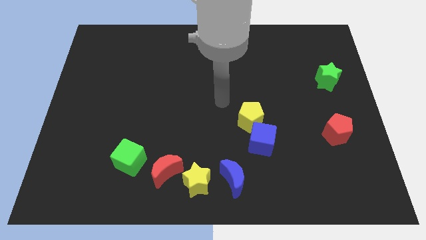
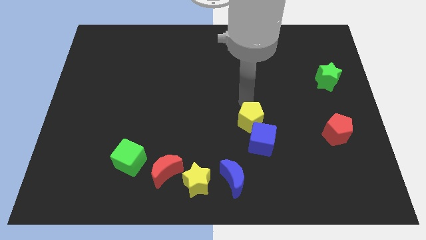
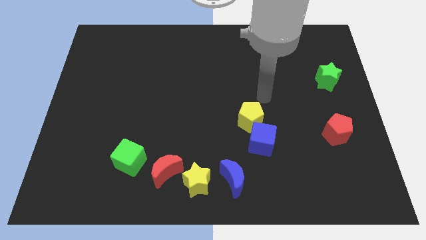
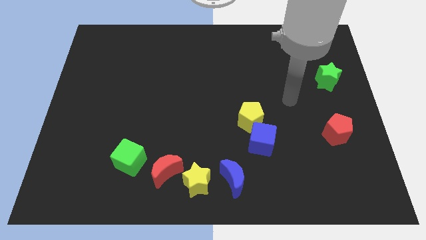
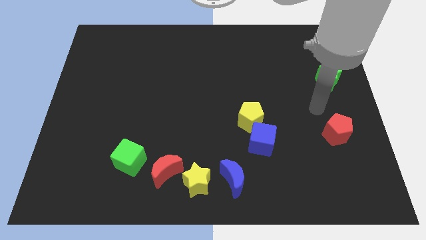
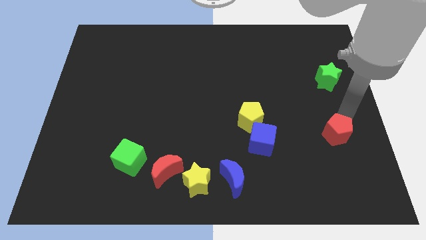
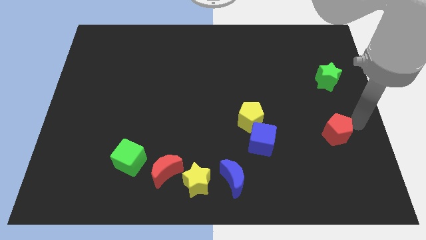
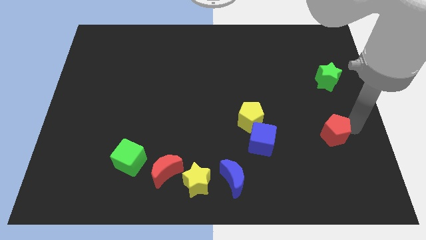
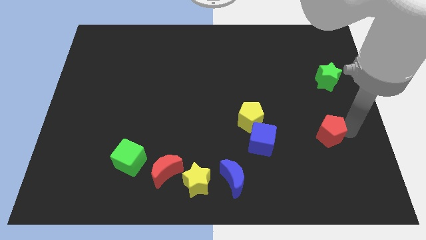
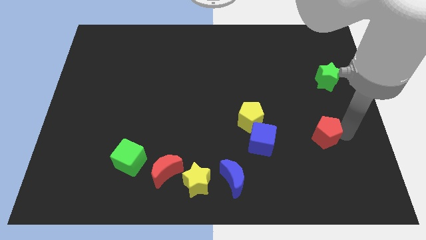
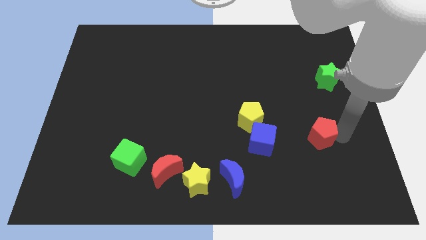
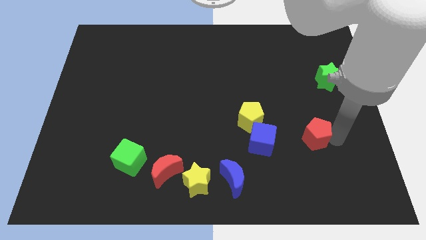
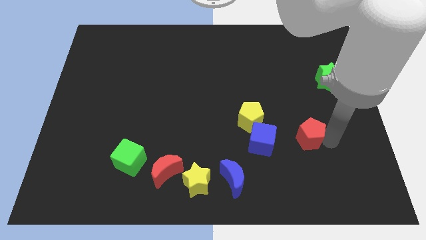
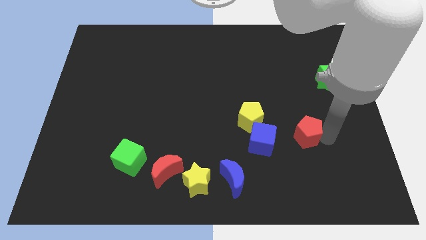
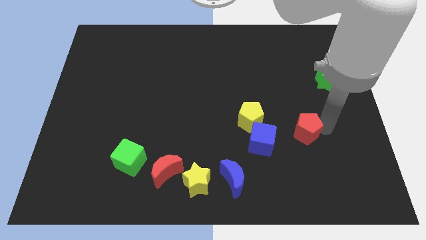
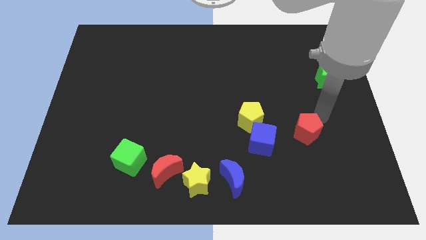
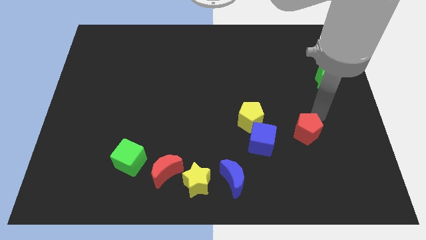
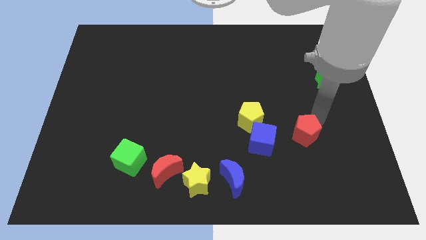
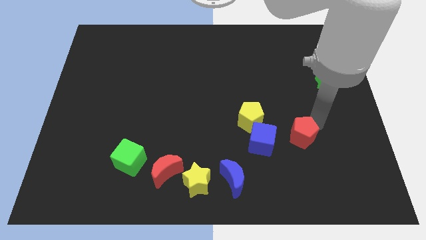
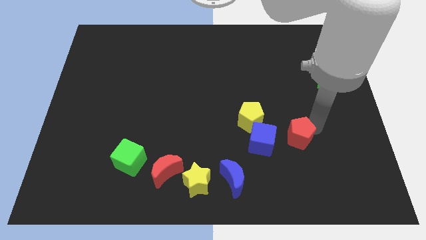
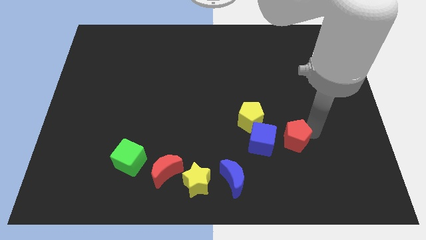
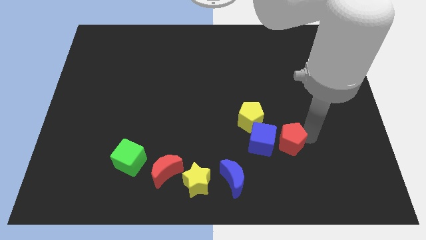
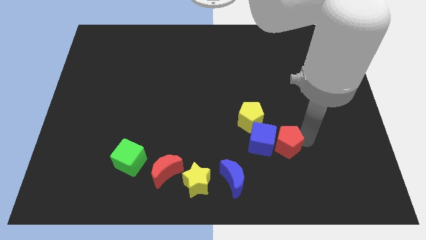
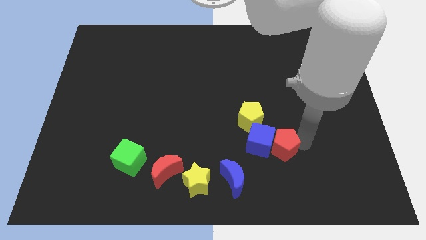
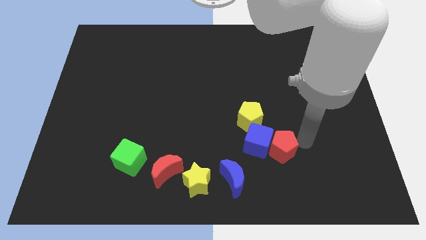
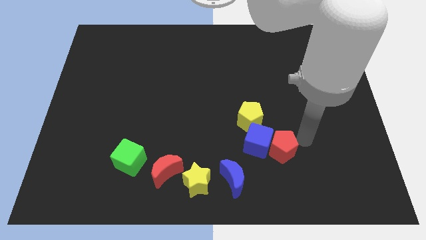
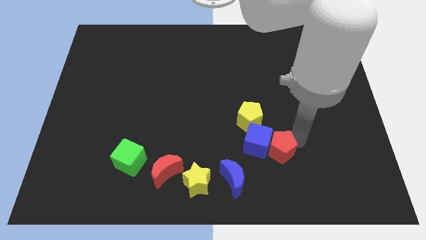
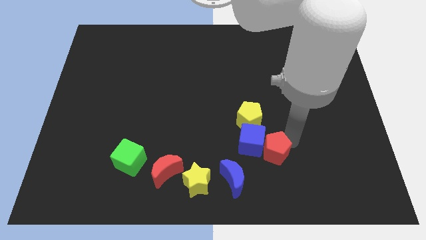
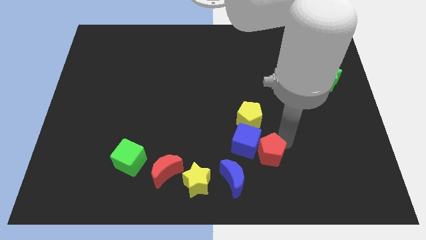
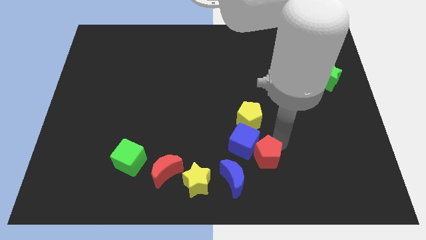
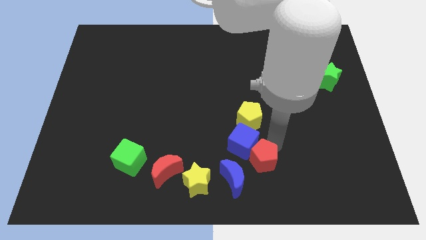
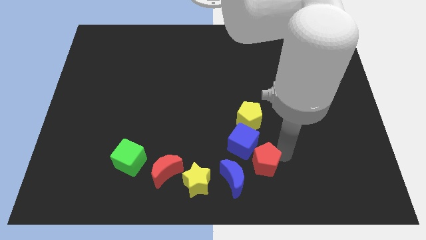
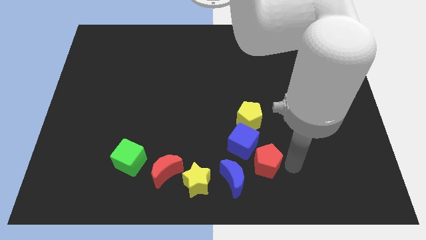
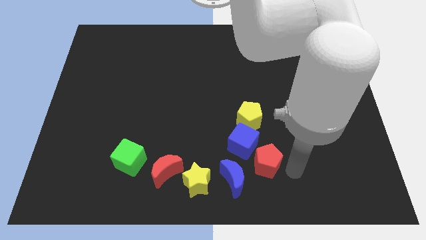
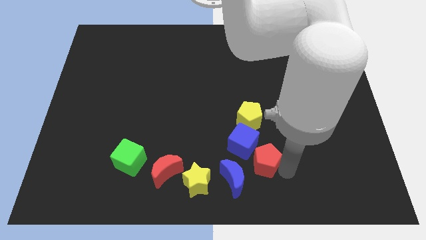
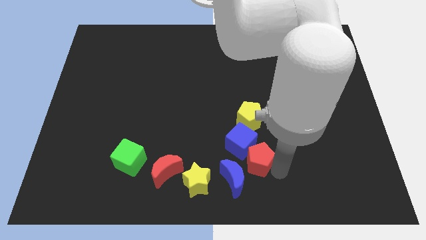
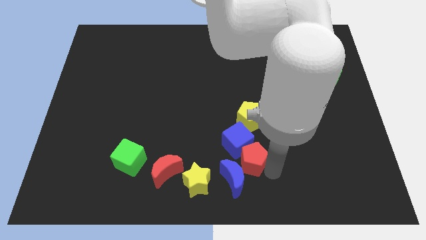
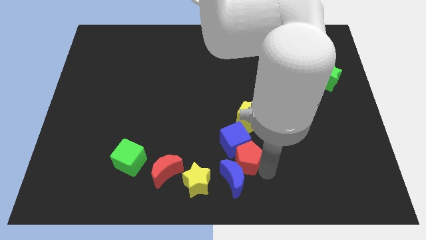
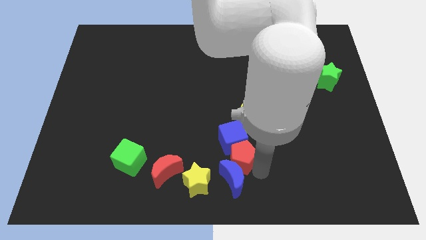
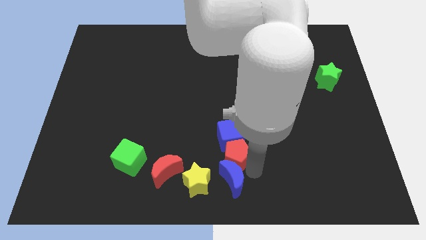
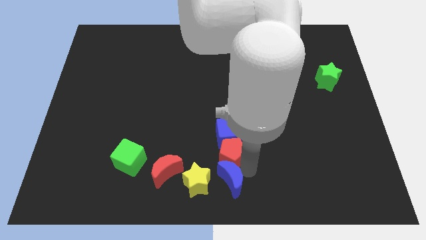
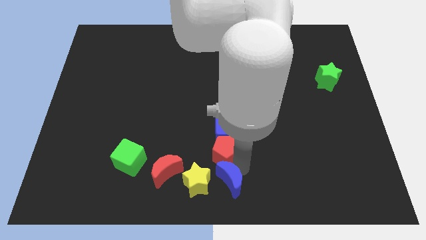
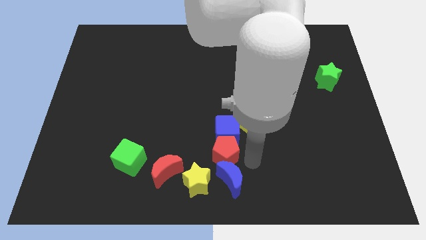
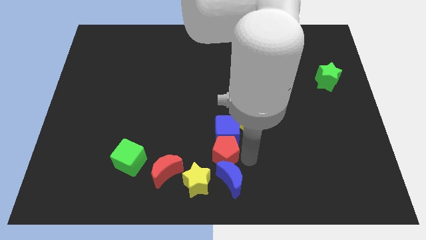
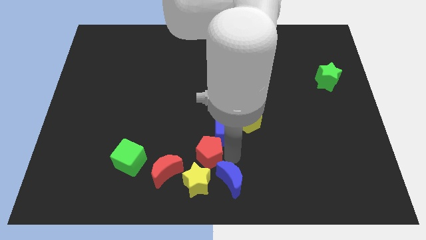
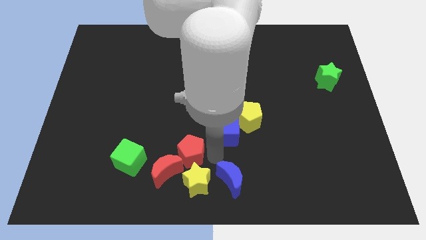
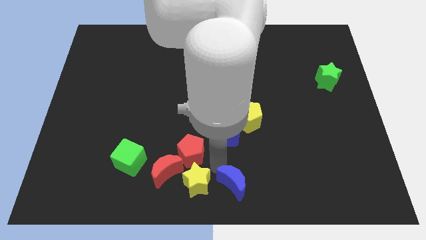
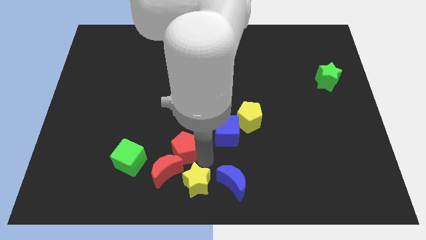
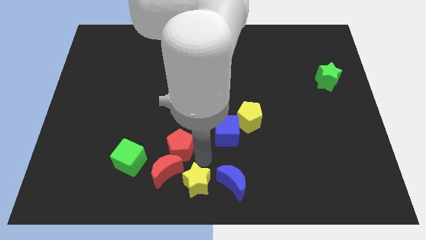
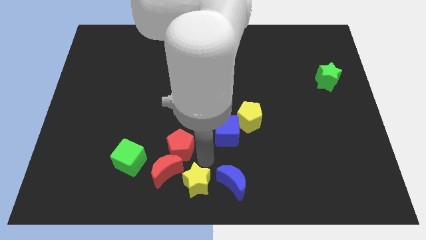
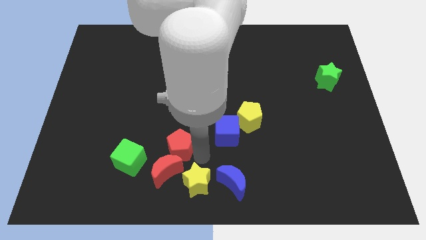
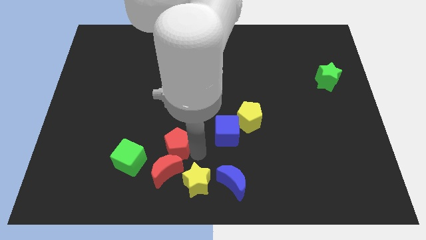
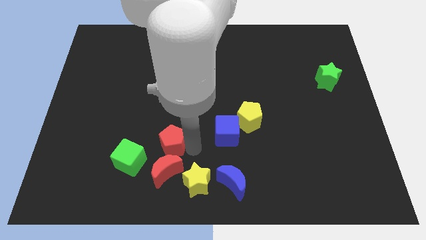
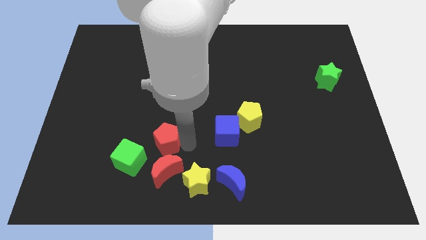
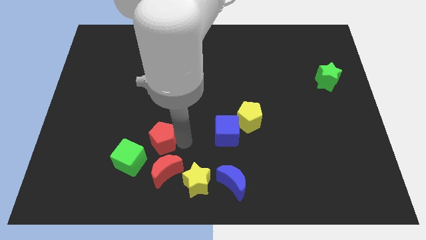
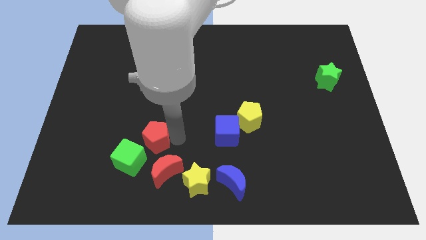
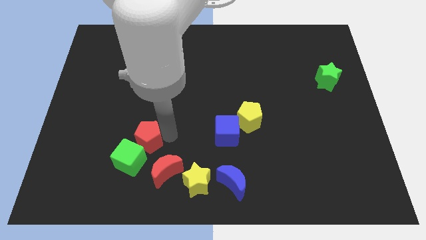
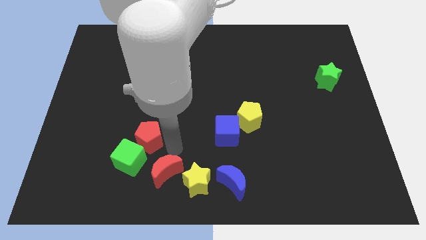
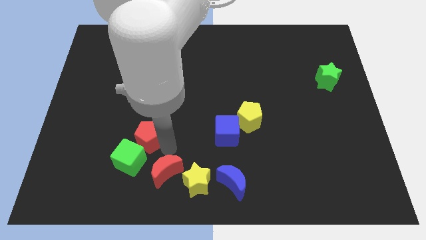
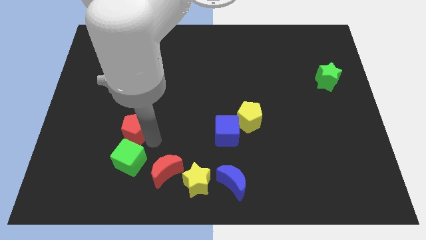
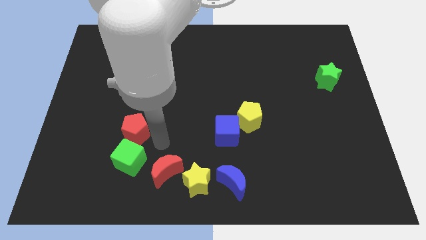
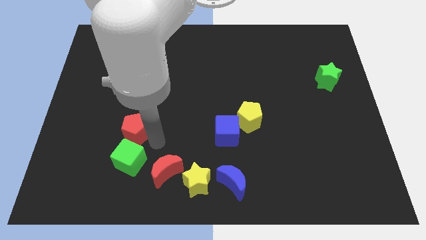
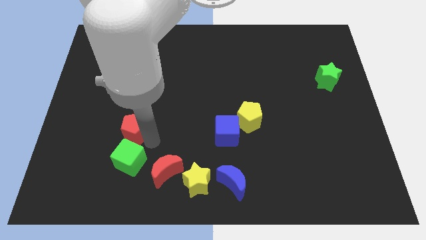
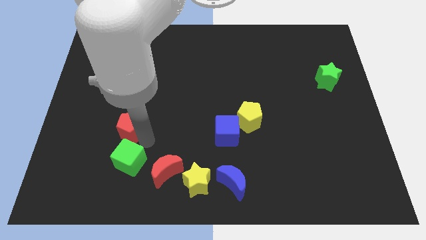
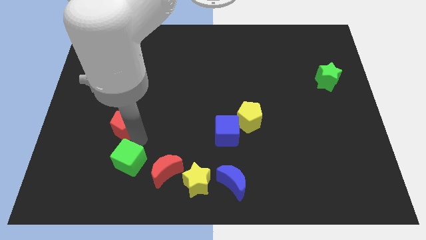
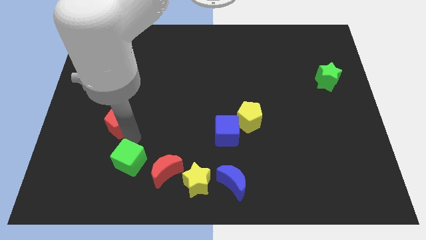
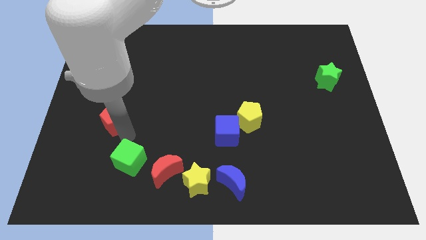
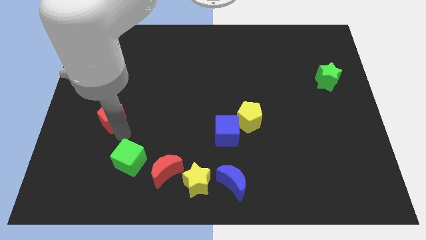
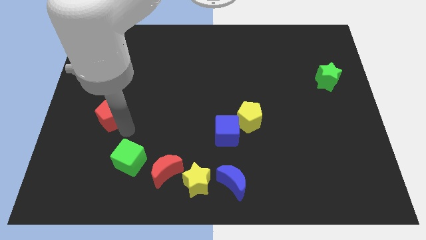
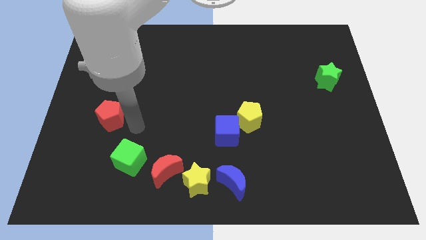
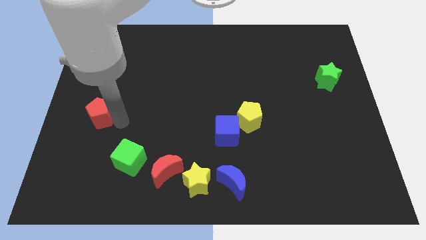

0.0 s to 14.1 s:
slide the red pentagon to the left side of the board
